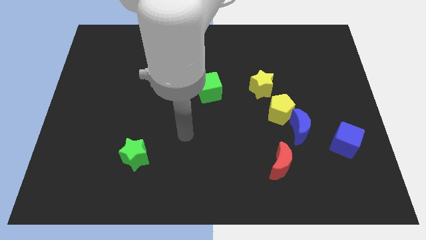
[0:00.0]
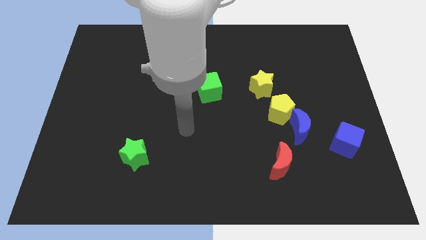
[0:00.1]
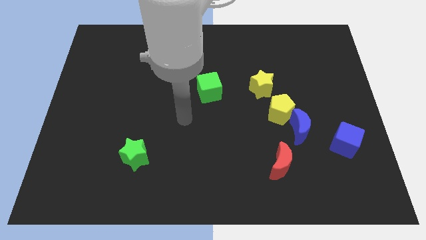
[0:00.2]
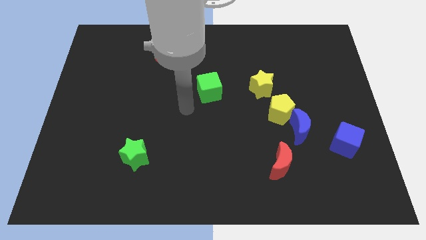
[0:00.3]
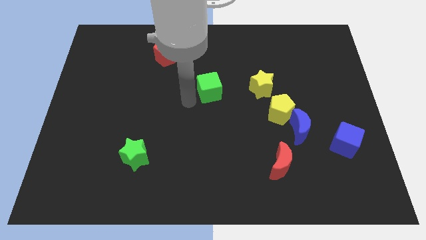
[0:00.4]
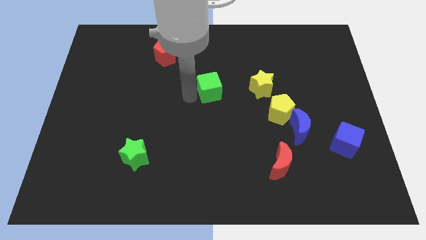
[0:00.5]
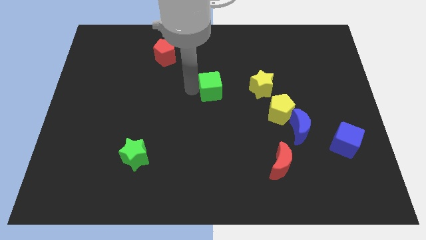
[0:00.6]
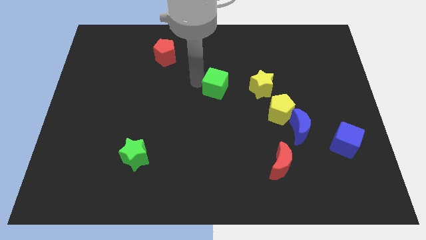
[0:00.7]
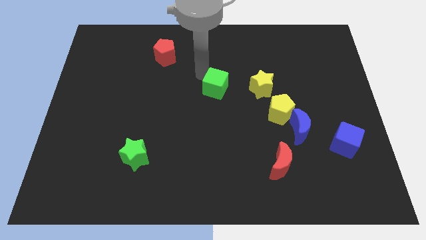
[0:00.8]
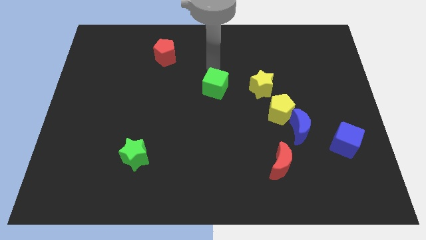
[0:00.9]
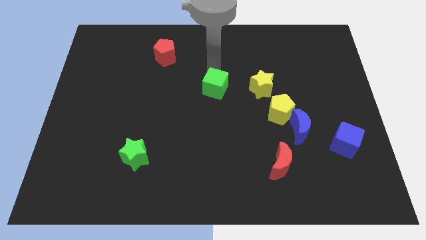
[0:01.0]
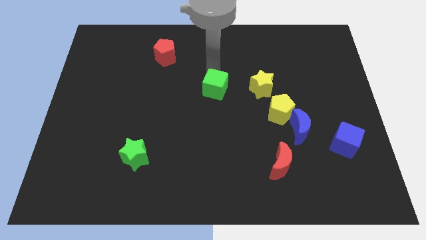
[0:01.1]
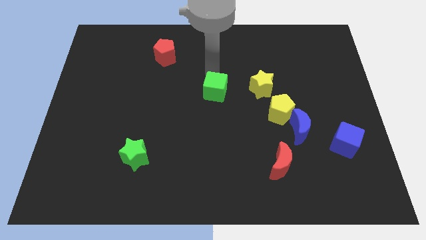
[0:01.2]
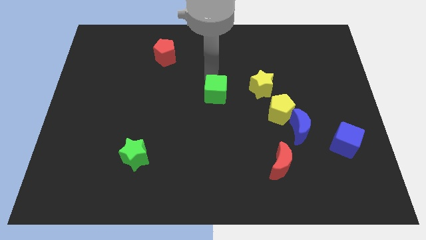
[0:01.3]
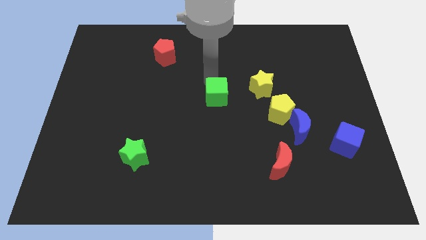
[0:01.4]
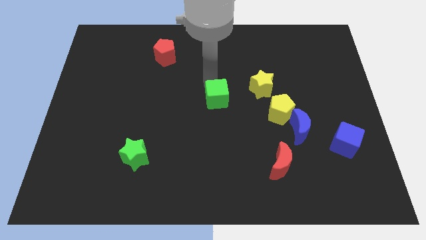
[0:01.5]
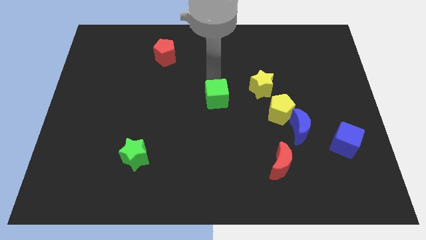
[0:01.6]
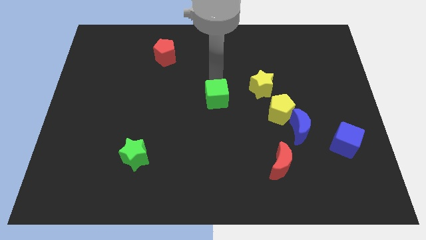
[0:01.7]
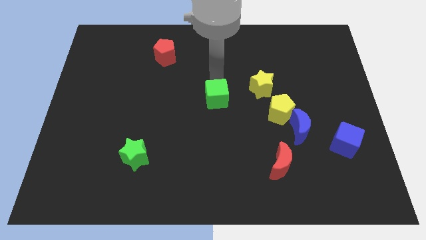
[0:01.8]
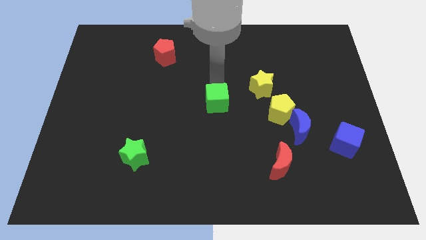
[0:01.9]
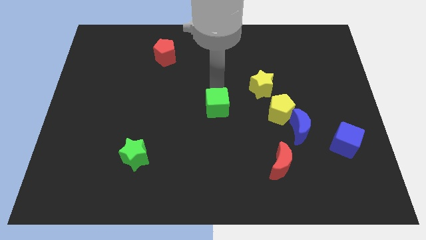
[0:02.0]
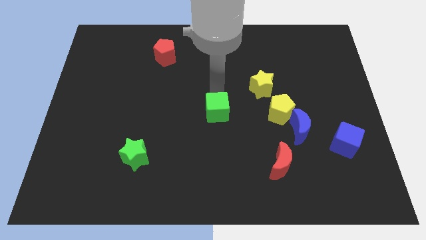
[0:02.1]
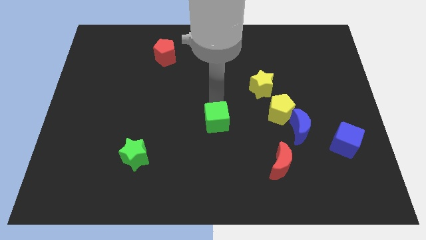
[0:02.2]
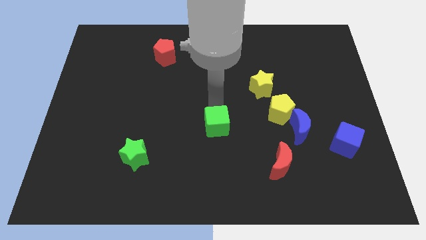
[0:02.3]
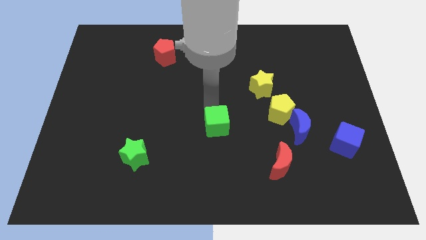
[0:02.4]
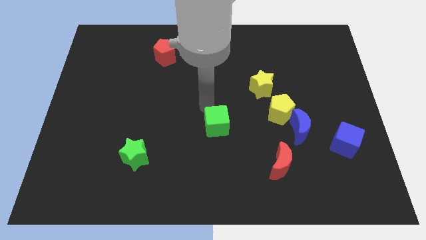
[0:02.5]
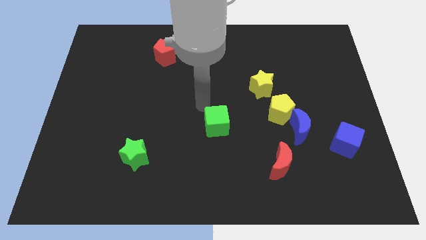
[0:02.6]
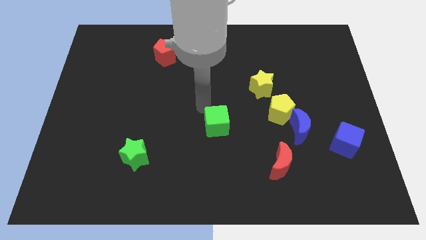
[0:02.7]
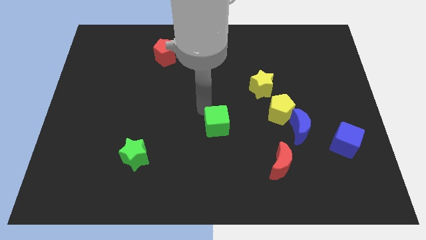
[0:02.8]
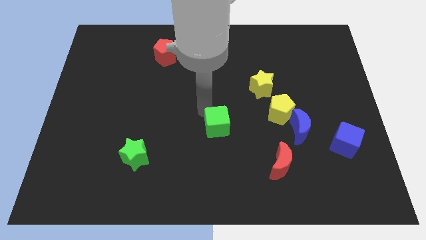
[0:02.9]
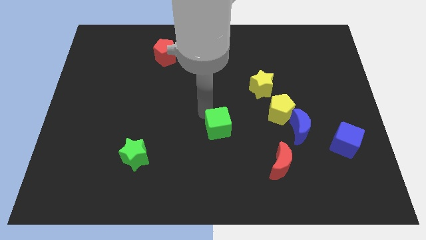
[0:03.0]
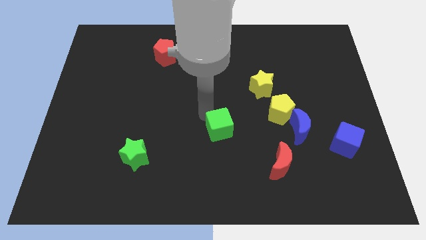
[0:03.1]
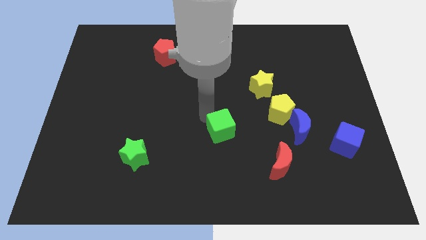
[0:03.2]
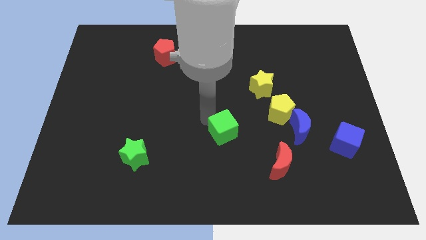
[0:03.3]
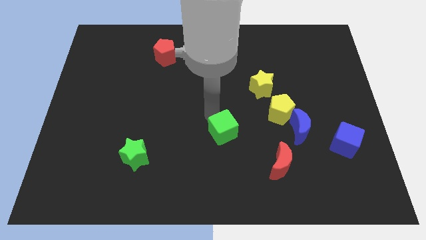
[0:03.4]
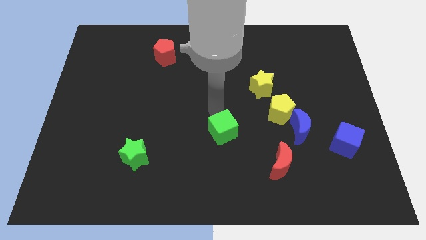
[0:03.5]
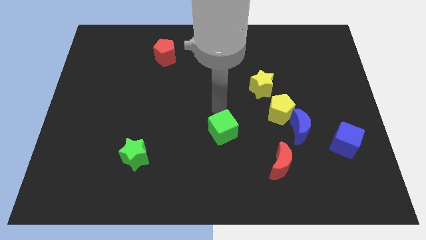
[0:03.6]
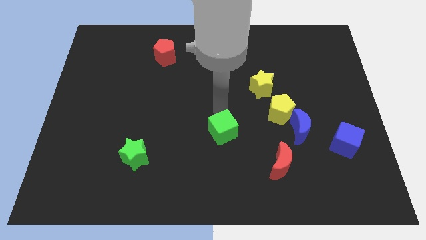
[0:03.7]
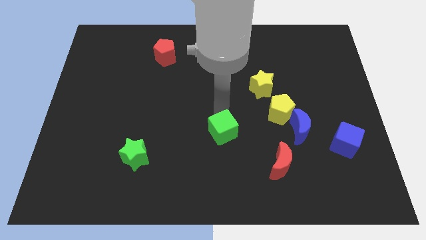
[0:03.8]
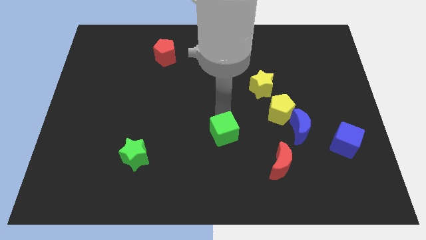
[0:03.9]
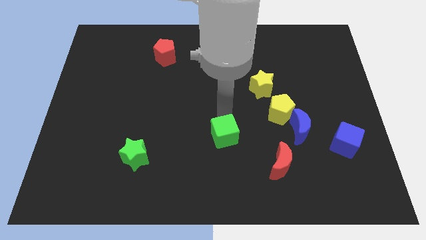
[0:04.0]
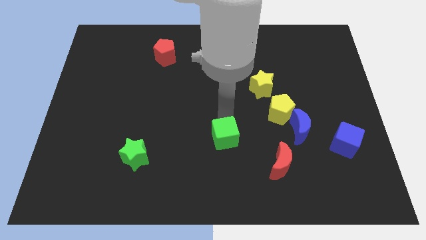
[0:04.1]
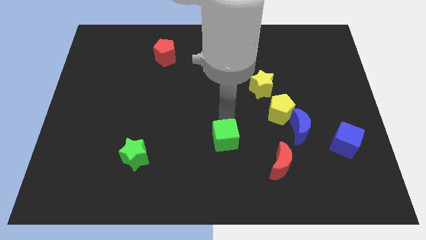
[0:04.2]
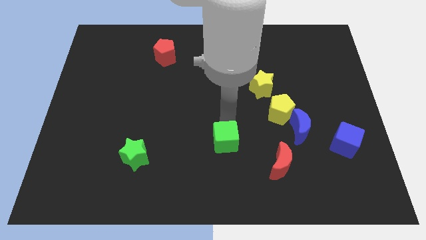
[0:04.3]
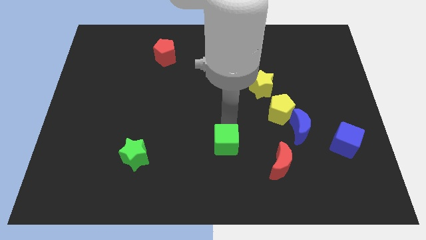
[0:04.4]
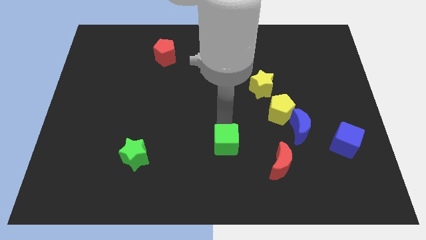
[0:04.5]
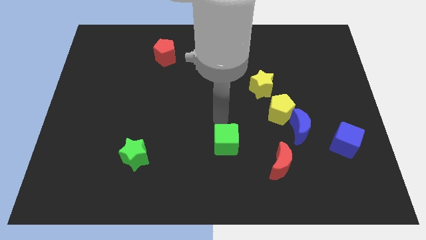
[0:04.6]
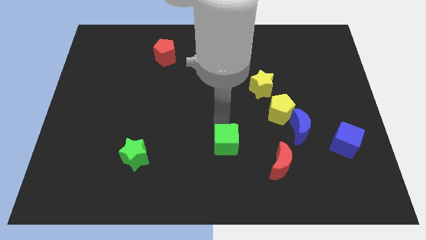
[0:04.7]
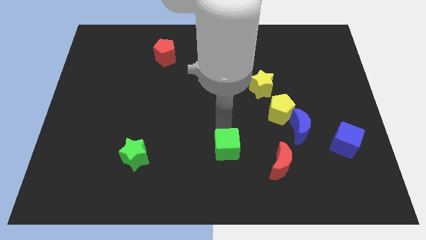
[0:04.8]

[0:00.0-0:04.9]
move the green cube left of the red moon

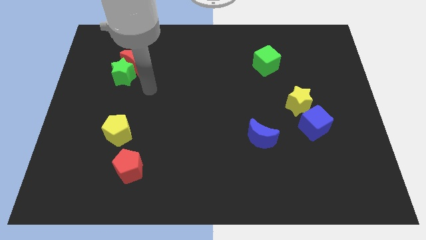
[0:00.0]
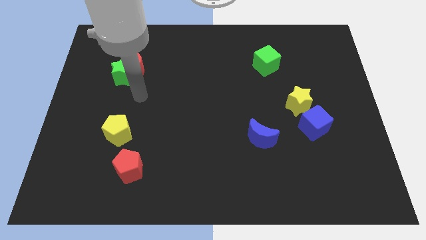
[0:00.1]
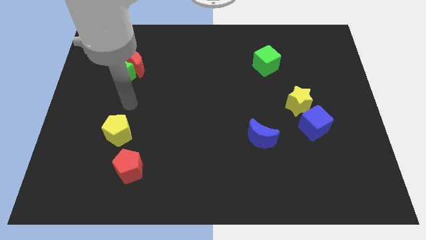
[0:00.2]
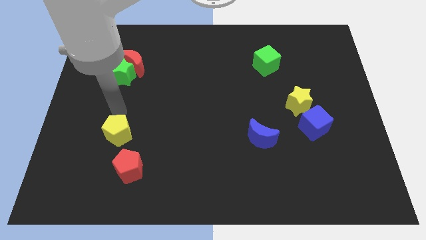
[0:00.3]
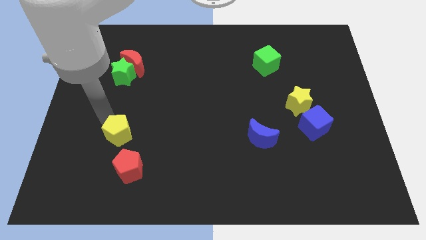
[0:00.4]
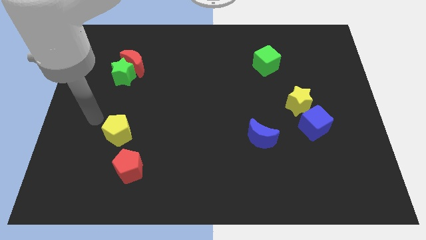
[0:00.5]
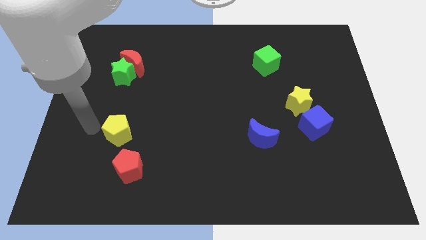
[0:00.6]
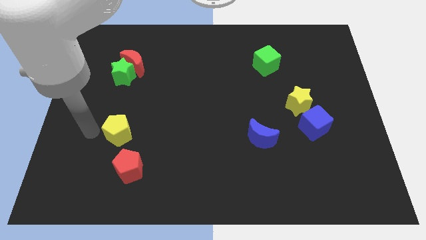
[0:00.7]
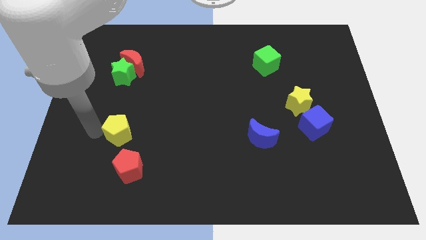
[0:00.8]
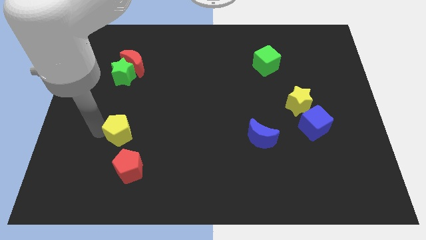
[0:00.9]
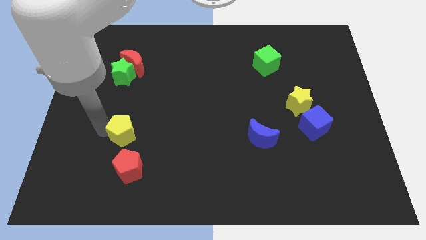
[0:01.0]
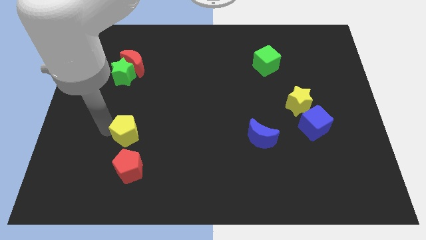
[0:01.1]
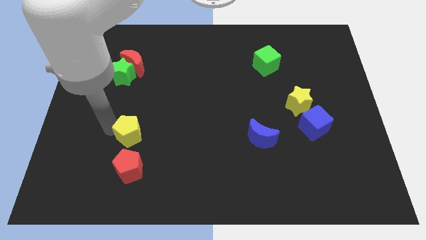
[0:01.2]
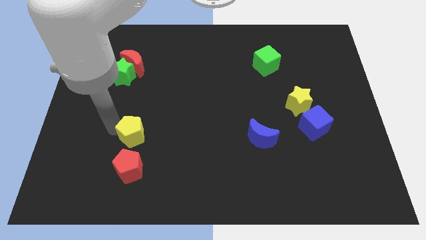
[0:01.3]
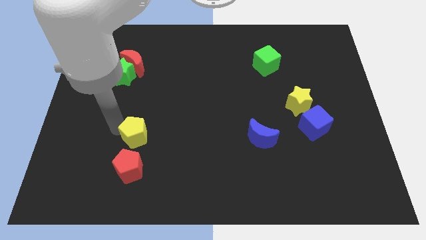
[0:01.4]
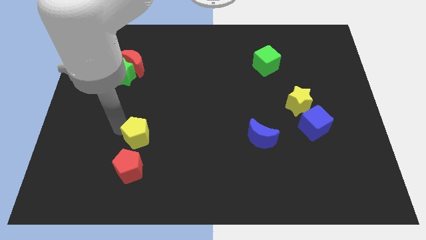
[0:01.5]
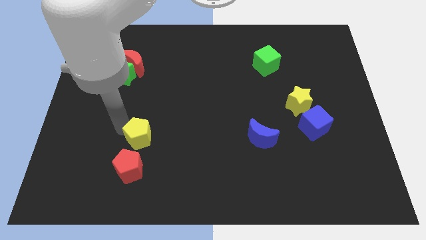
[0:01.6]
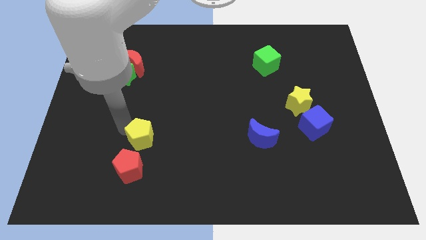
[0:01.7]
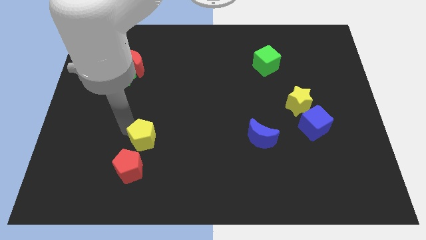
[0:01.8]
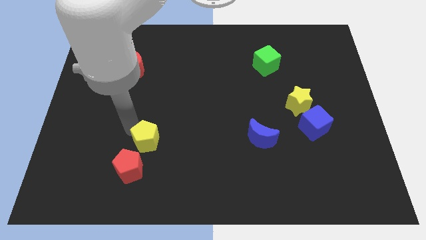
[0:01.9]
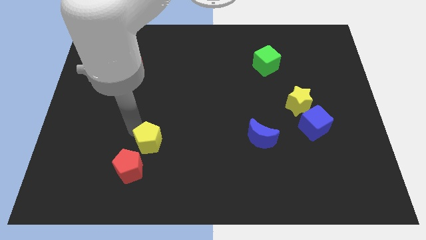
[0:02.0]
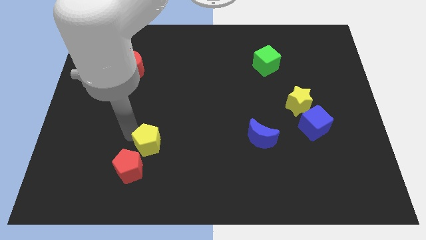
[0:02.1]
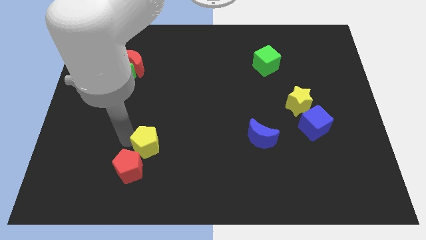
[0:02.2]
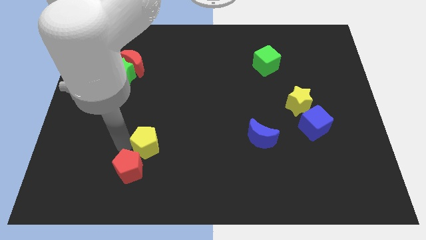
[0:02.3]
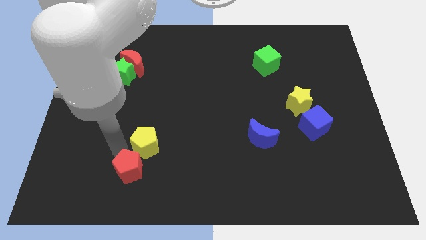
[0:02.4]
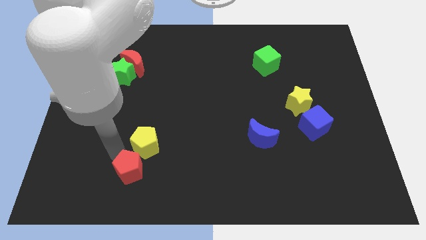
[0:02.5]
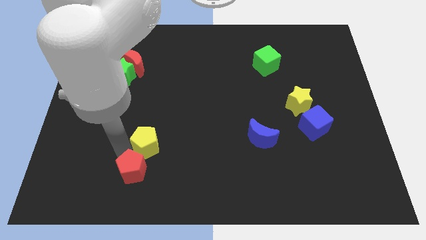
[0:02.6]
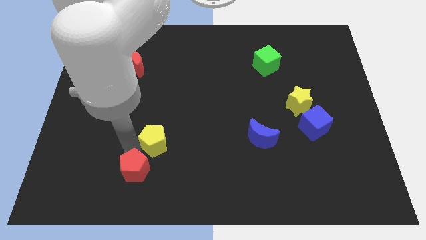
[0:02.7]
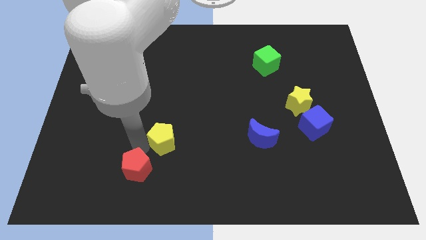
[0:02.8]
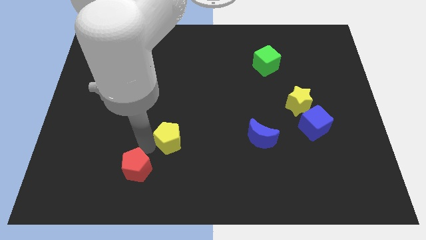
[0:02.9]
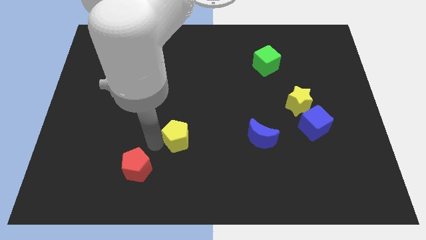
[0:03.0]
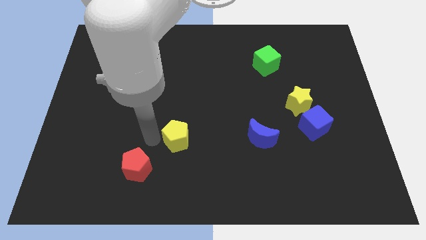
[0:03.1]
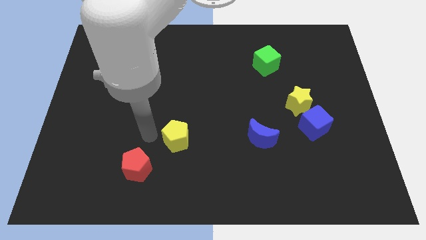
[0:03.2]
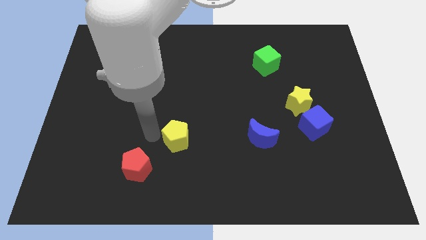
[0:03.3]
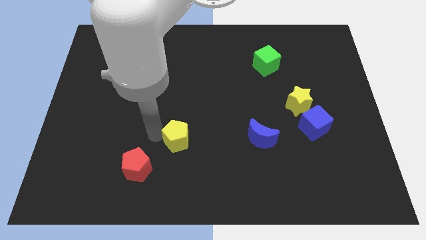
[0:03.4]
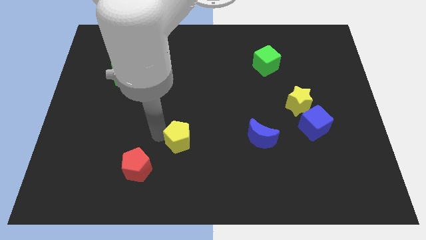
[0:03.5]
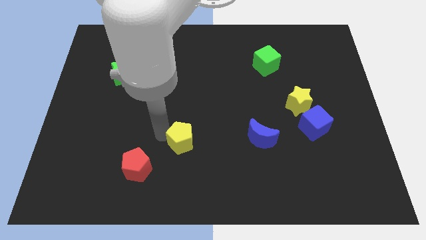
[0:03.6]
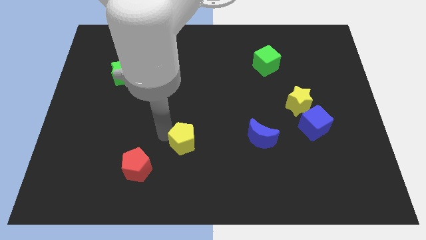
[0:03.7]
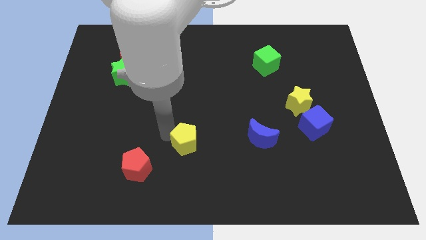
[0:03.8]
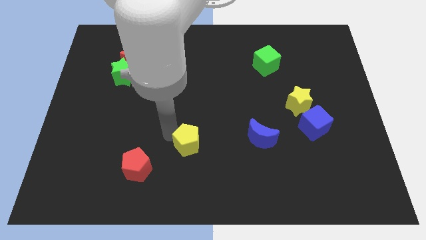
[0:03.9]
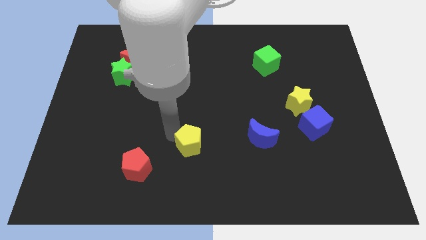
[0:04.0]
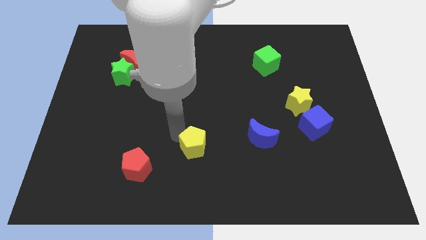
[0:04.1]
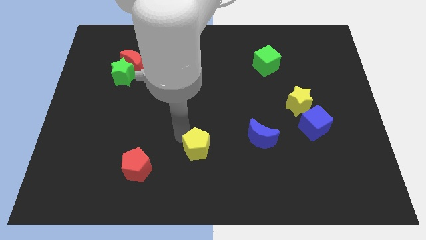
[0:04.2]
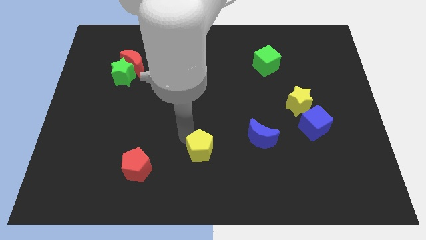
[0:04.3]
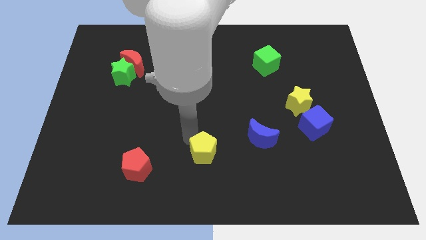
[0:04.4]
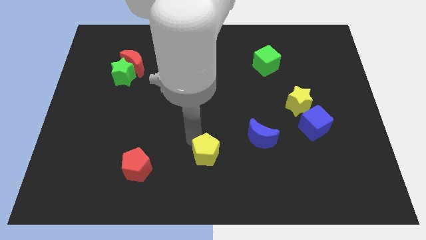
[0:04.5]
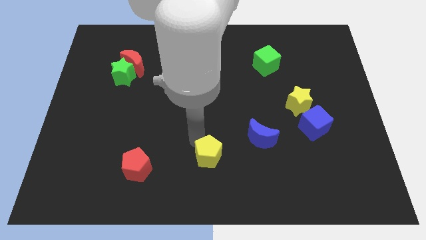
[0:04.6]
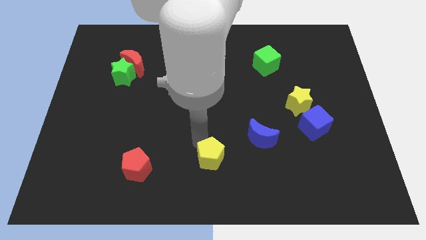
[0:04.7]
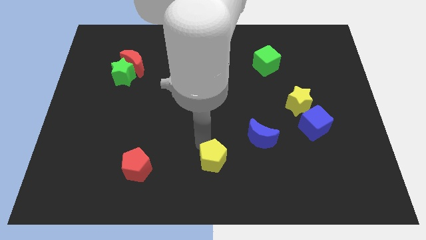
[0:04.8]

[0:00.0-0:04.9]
slide the yellow pentagon diagonally down and to the left of the blue moon
